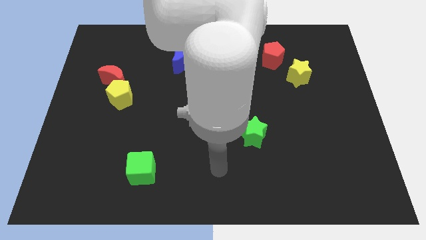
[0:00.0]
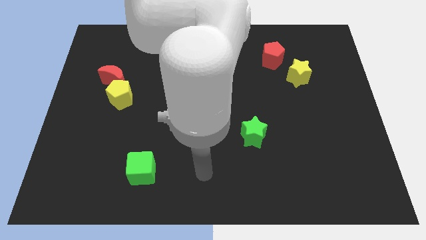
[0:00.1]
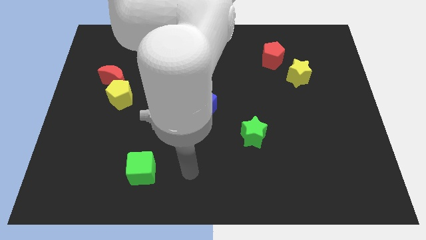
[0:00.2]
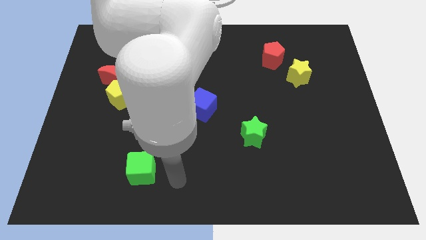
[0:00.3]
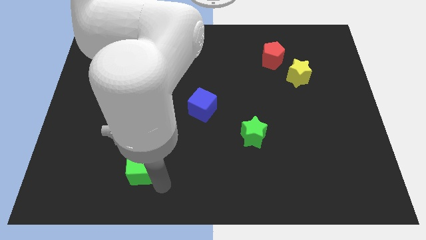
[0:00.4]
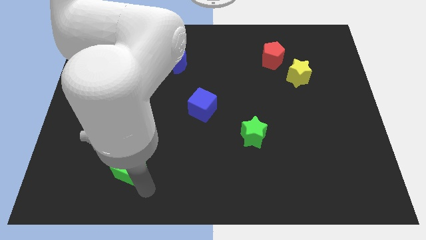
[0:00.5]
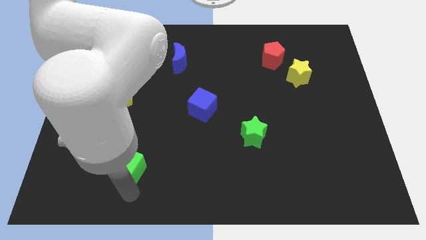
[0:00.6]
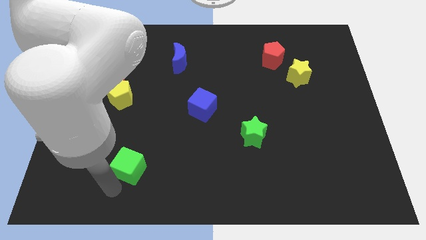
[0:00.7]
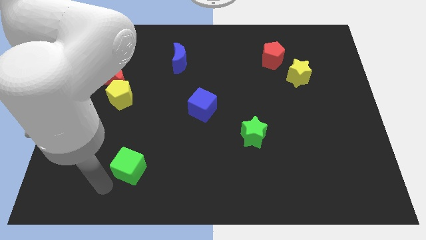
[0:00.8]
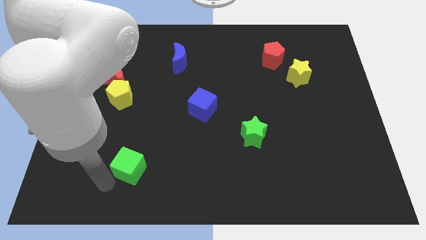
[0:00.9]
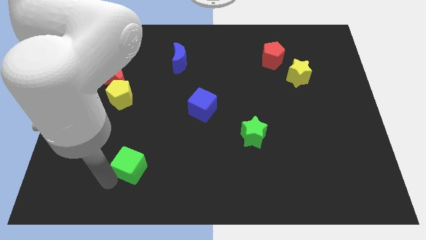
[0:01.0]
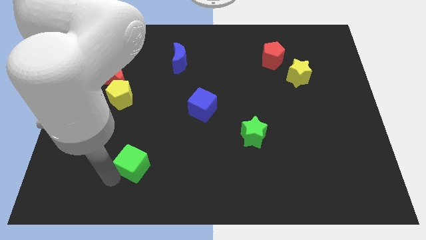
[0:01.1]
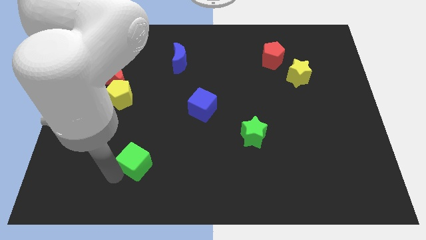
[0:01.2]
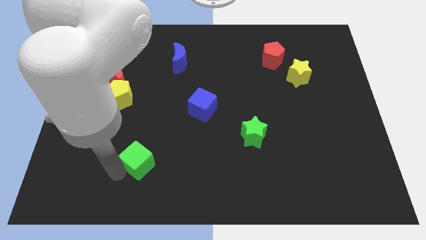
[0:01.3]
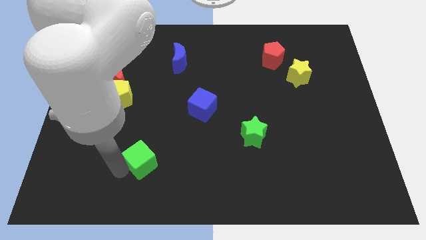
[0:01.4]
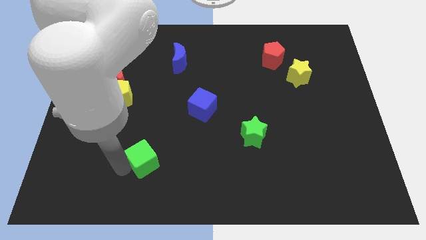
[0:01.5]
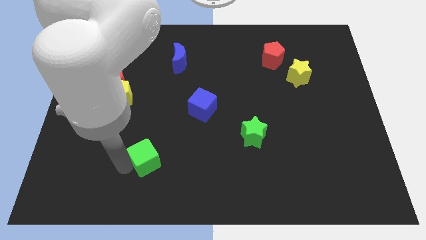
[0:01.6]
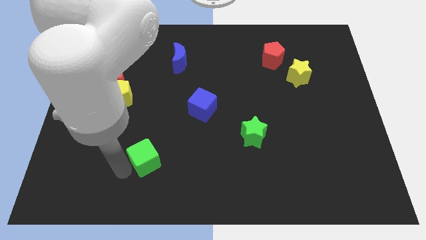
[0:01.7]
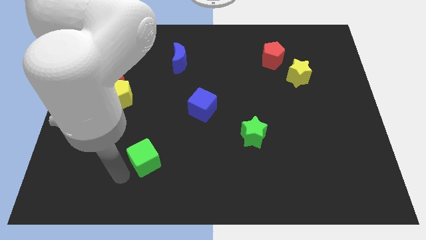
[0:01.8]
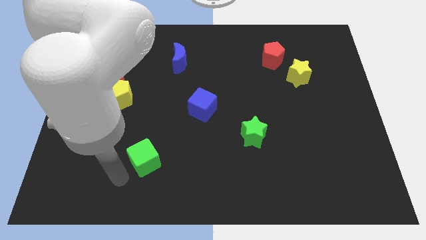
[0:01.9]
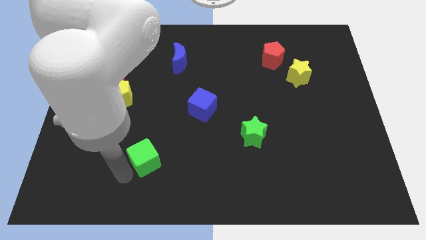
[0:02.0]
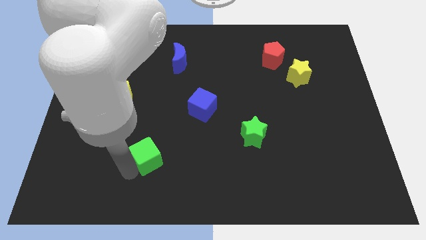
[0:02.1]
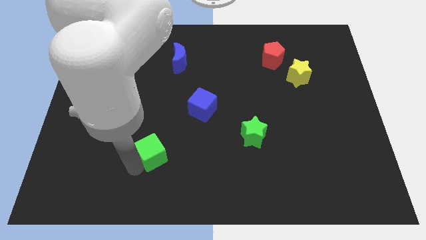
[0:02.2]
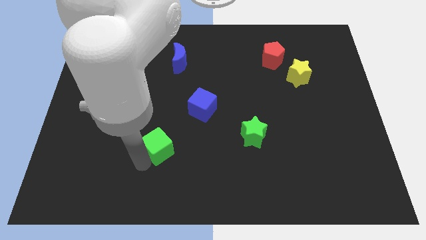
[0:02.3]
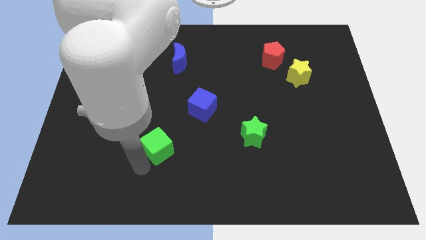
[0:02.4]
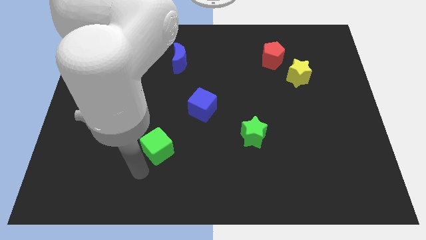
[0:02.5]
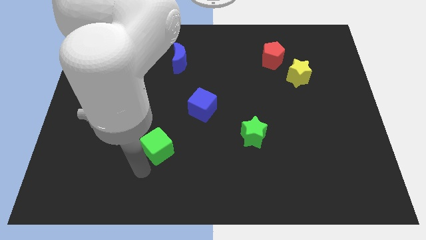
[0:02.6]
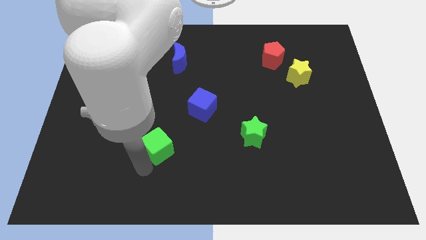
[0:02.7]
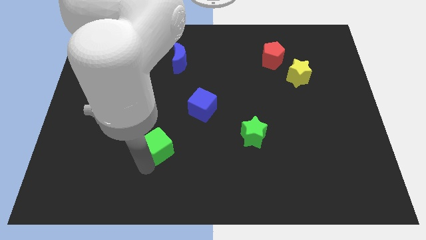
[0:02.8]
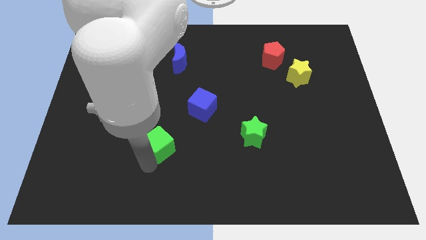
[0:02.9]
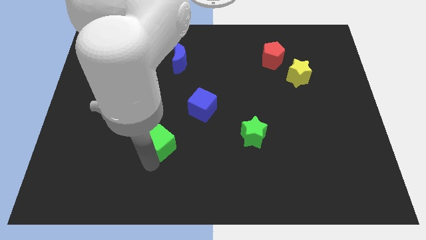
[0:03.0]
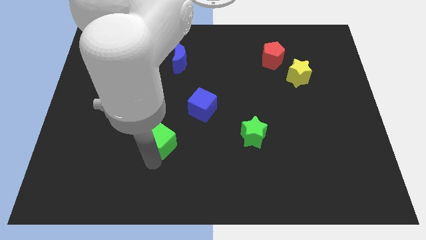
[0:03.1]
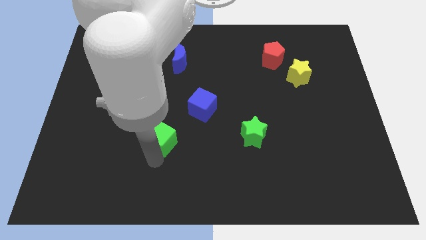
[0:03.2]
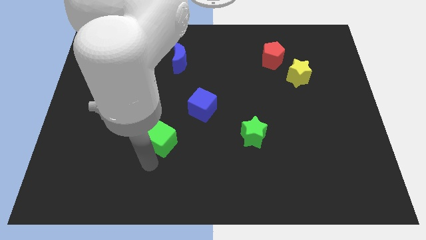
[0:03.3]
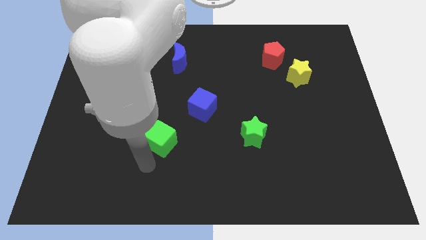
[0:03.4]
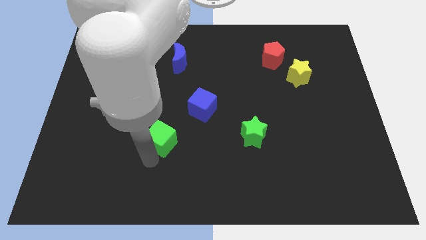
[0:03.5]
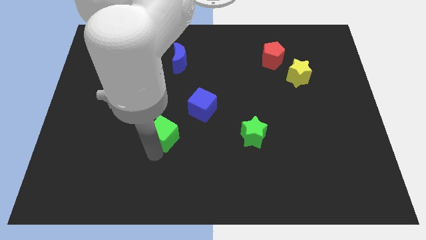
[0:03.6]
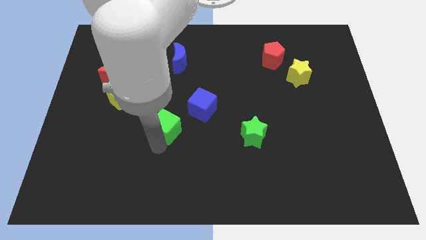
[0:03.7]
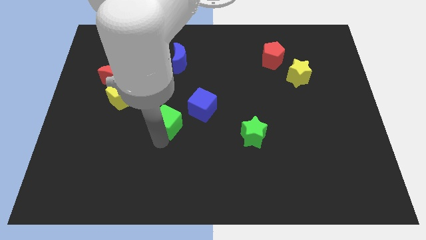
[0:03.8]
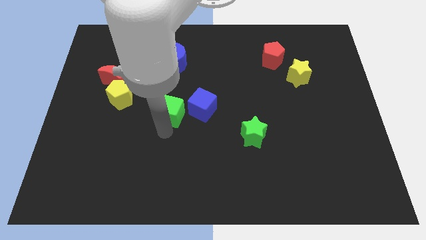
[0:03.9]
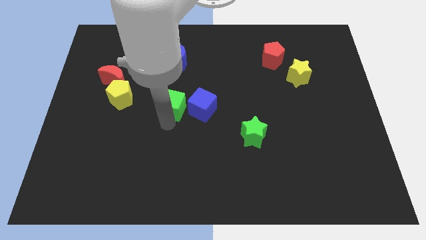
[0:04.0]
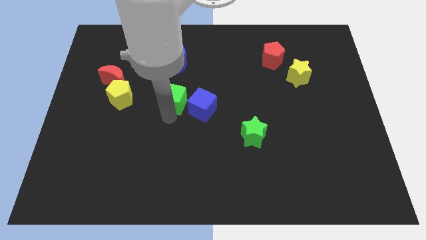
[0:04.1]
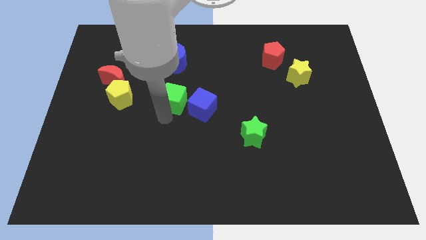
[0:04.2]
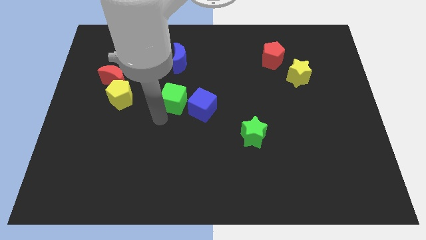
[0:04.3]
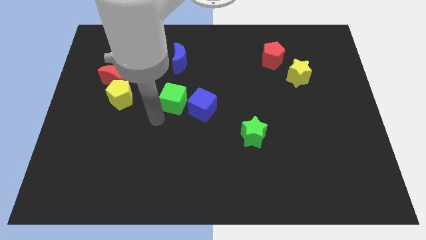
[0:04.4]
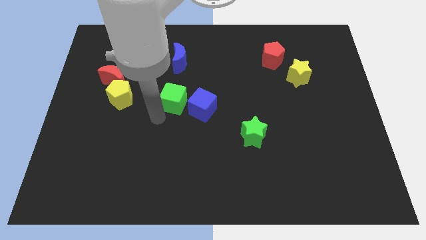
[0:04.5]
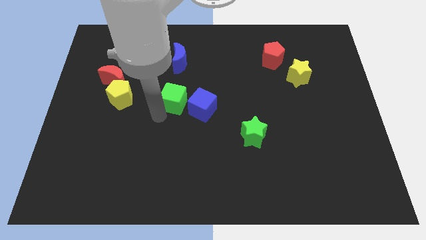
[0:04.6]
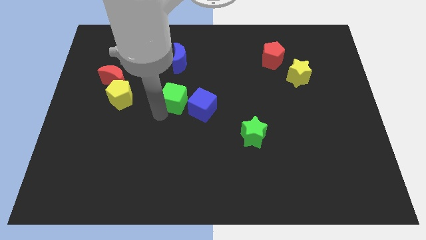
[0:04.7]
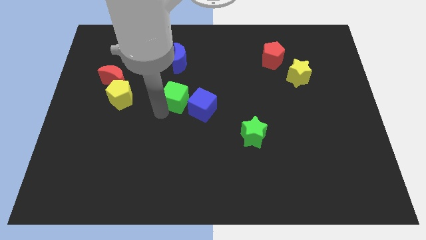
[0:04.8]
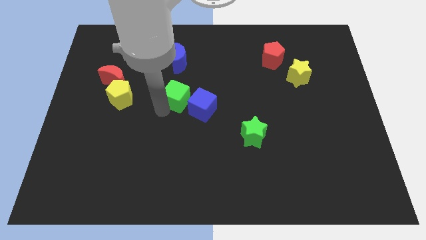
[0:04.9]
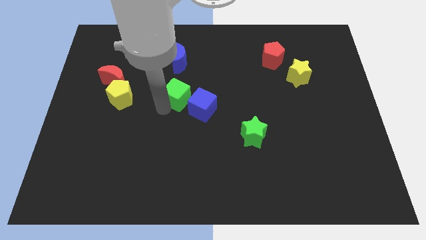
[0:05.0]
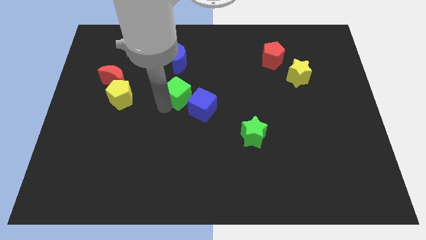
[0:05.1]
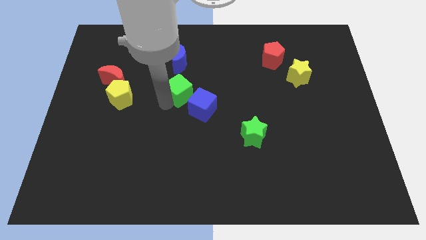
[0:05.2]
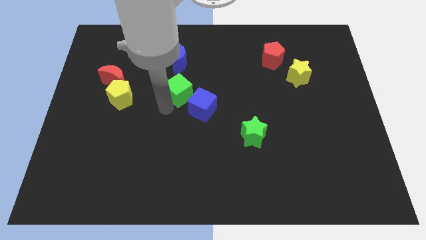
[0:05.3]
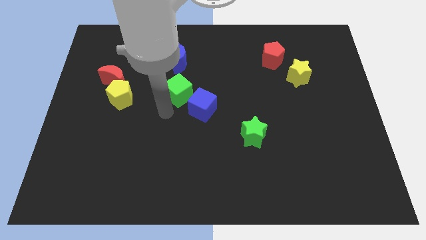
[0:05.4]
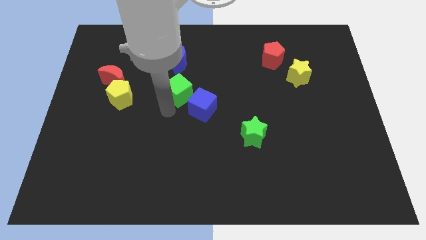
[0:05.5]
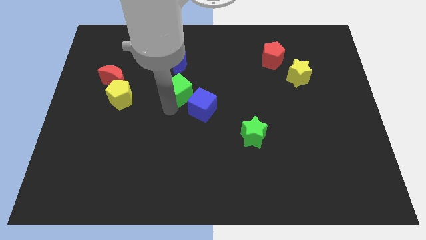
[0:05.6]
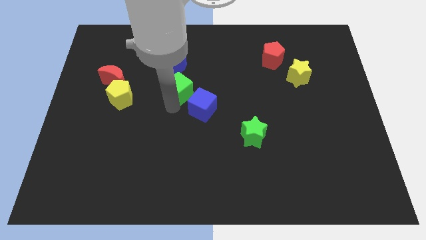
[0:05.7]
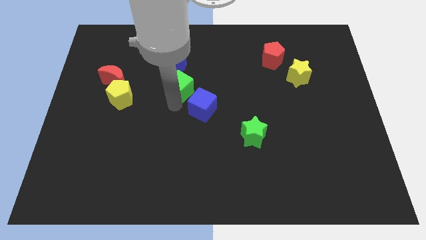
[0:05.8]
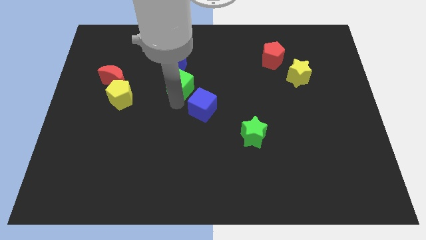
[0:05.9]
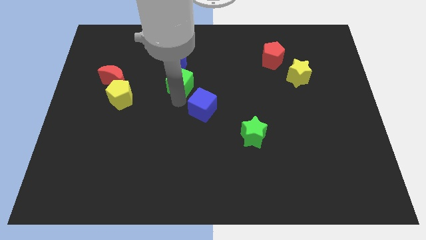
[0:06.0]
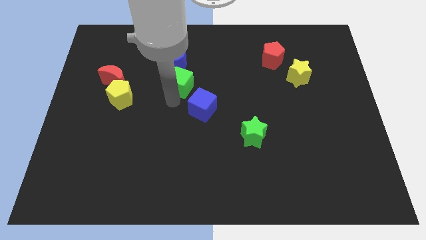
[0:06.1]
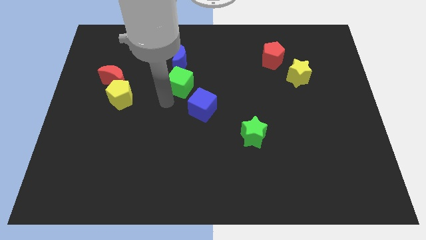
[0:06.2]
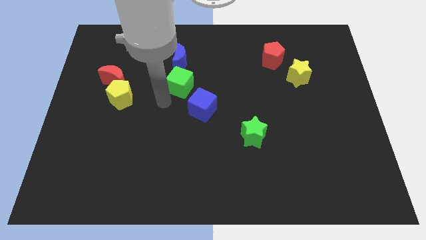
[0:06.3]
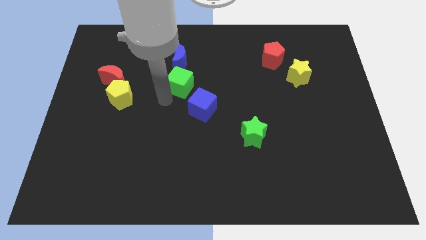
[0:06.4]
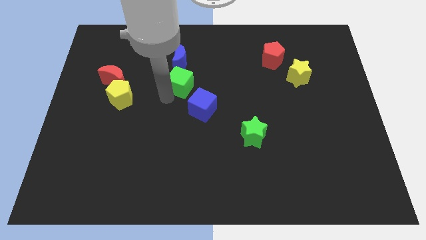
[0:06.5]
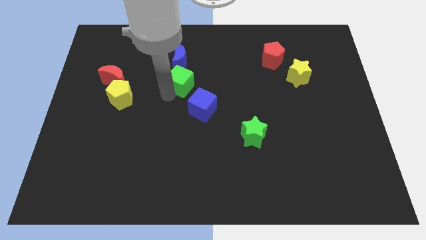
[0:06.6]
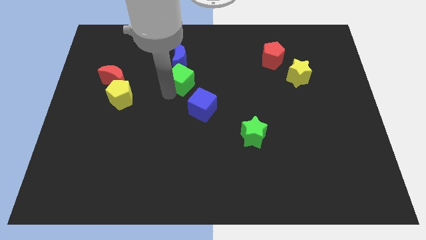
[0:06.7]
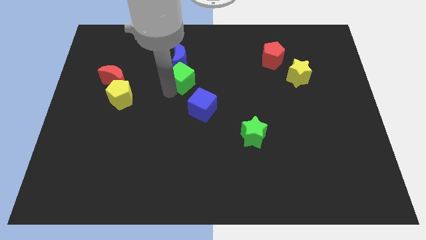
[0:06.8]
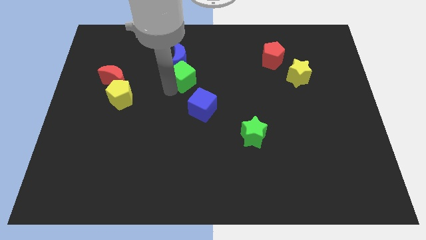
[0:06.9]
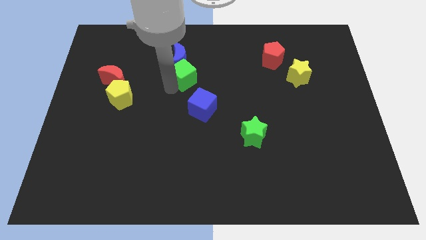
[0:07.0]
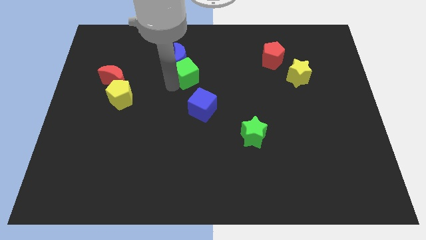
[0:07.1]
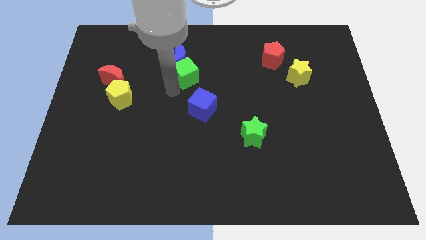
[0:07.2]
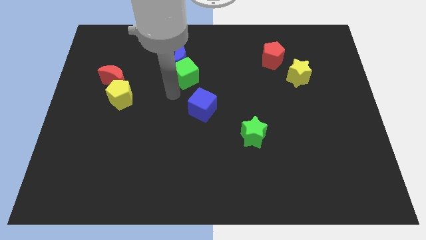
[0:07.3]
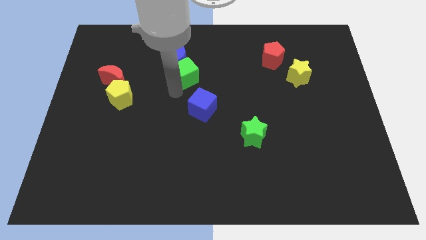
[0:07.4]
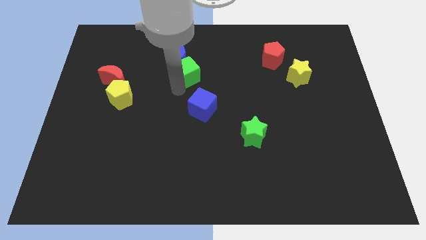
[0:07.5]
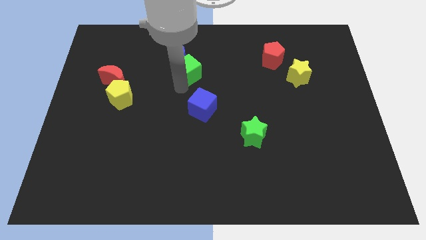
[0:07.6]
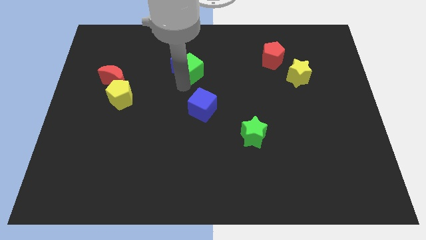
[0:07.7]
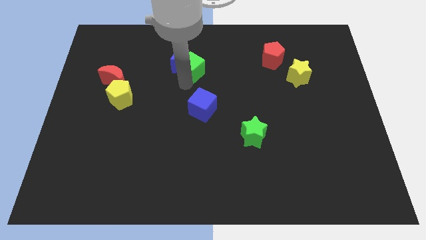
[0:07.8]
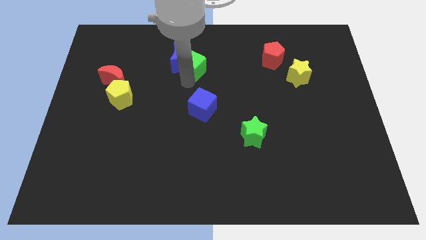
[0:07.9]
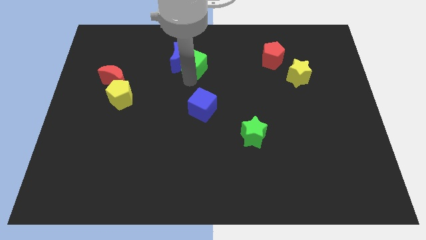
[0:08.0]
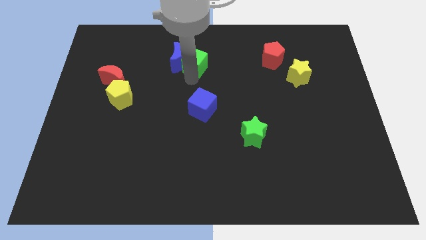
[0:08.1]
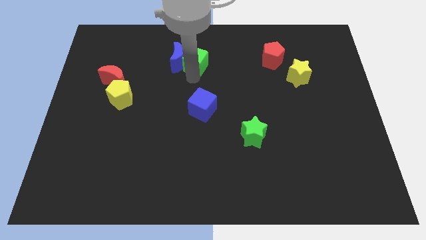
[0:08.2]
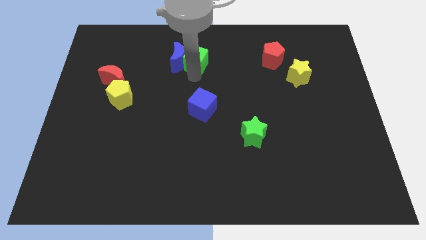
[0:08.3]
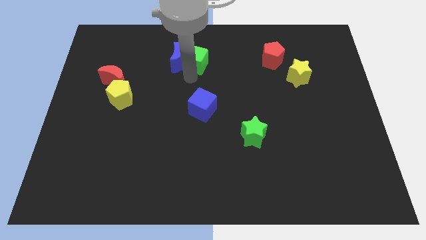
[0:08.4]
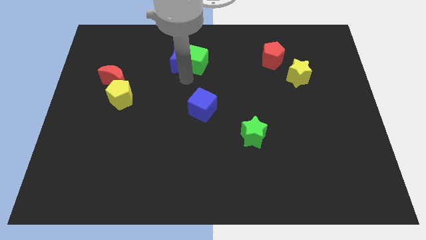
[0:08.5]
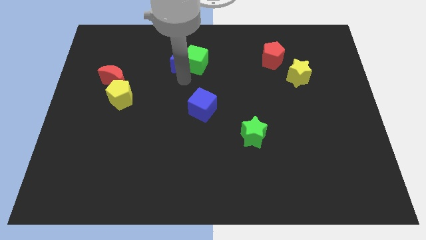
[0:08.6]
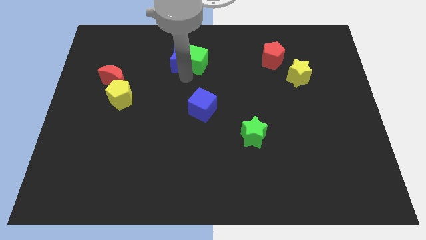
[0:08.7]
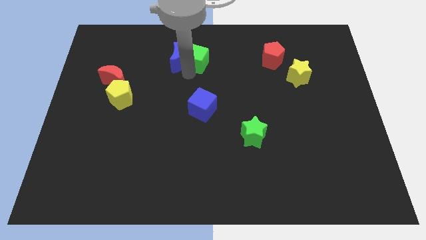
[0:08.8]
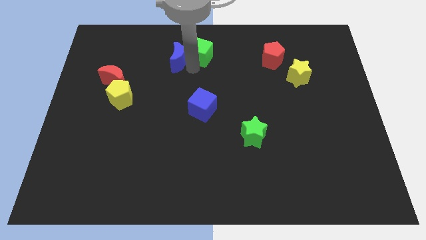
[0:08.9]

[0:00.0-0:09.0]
move the green cube to the top
